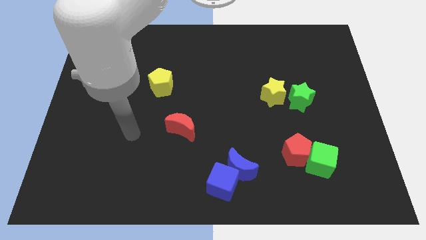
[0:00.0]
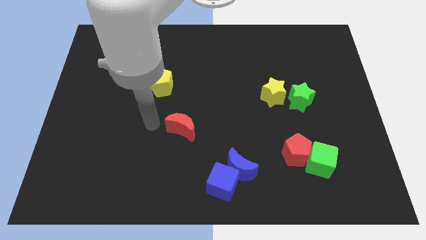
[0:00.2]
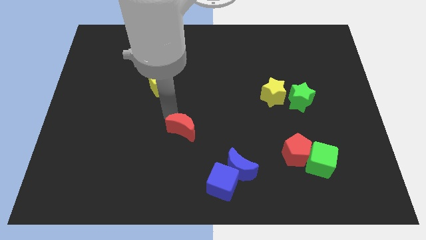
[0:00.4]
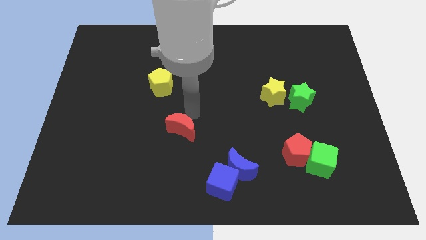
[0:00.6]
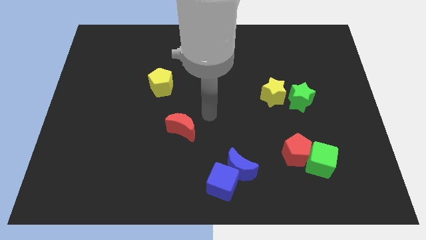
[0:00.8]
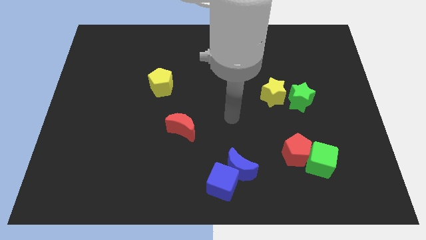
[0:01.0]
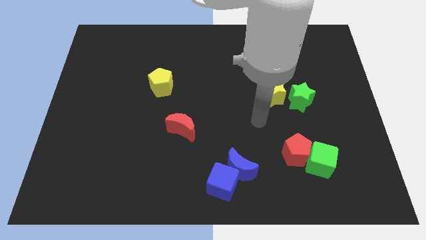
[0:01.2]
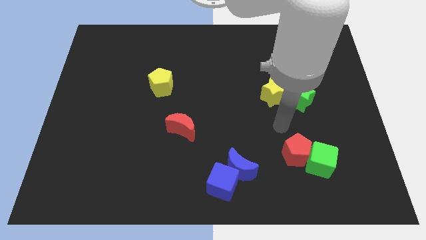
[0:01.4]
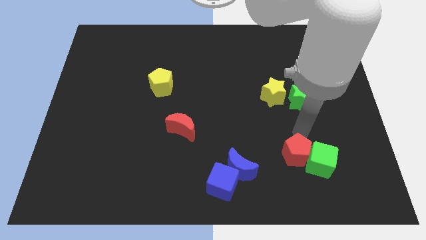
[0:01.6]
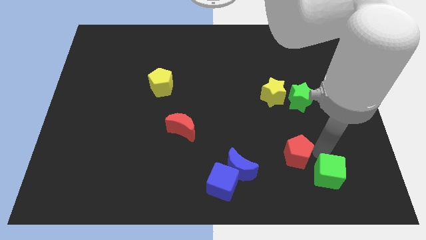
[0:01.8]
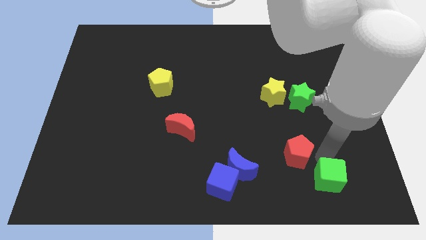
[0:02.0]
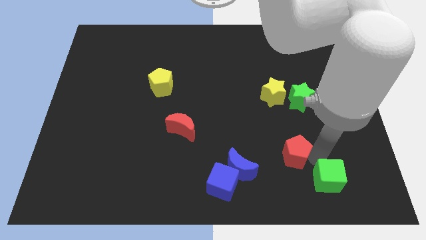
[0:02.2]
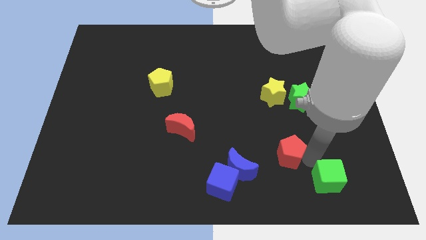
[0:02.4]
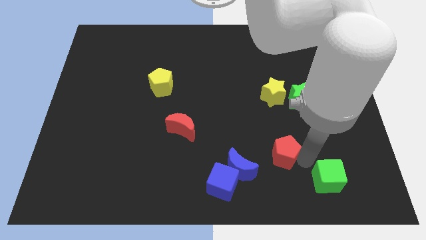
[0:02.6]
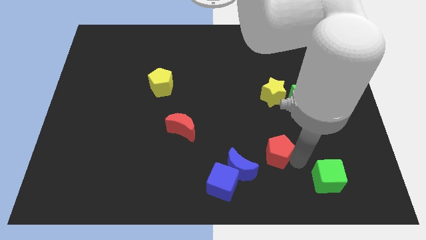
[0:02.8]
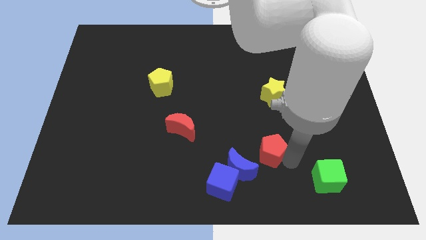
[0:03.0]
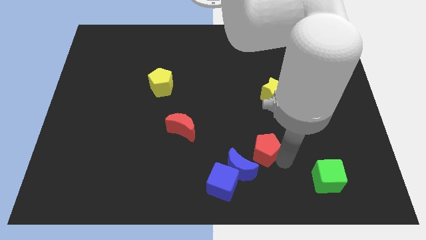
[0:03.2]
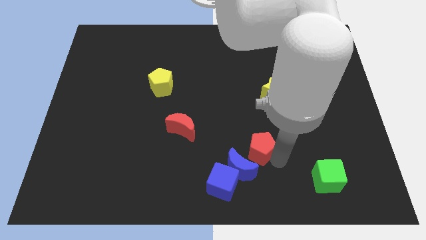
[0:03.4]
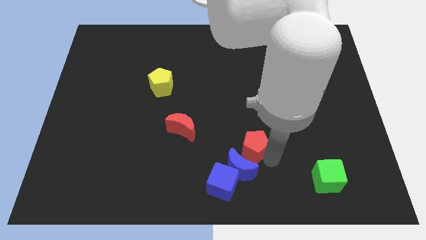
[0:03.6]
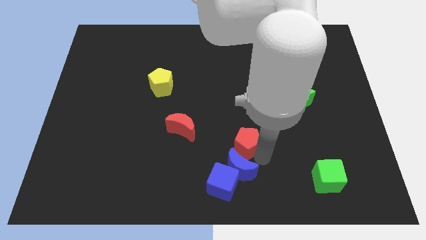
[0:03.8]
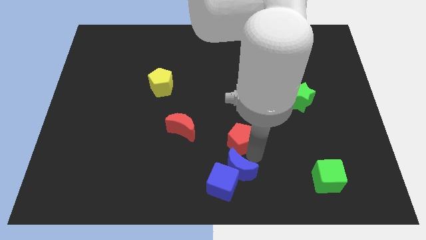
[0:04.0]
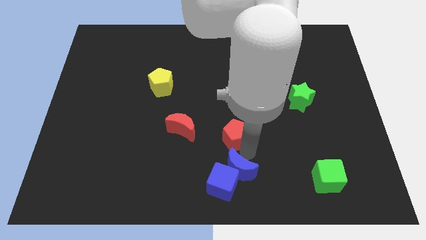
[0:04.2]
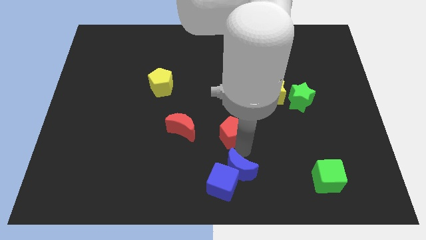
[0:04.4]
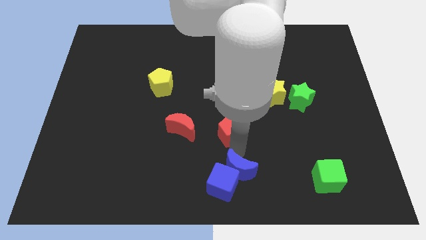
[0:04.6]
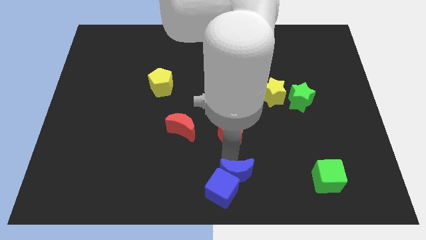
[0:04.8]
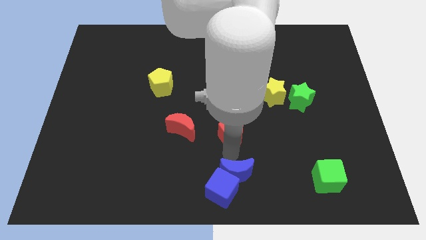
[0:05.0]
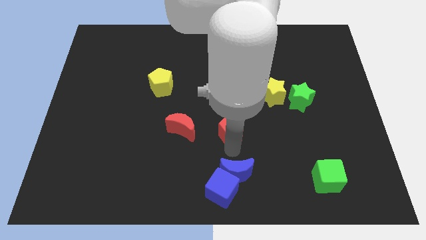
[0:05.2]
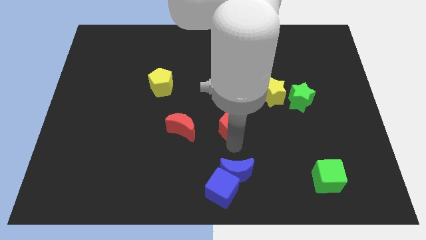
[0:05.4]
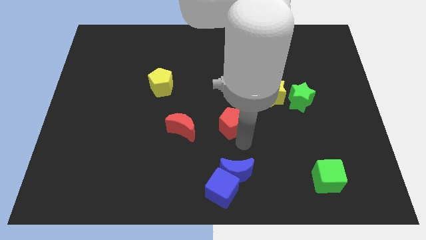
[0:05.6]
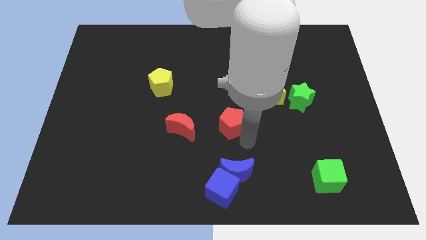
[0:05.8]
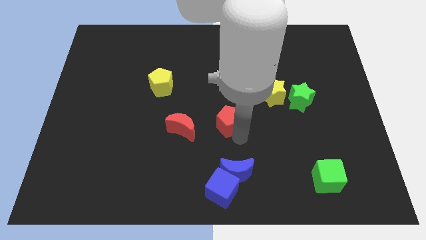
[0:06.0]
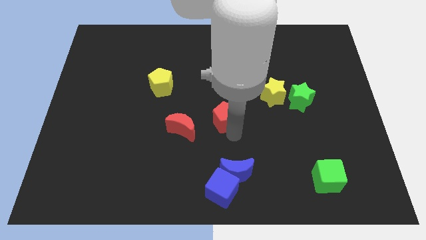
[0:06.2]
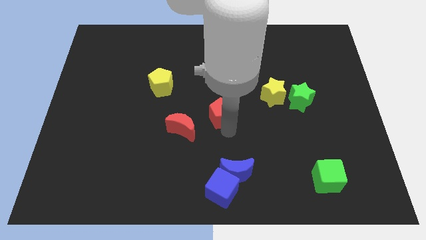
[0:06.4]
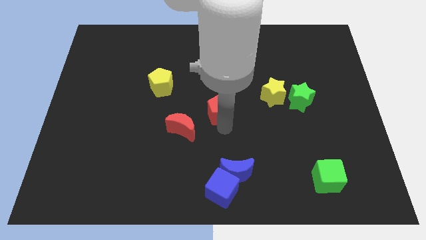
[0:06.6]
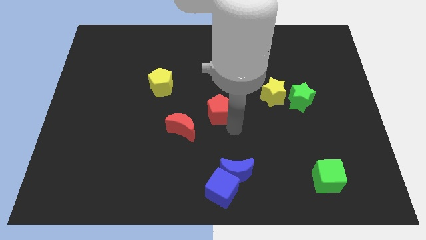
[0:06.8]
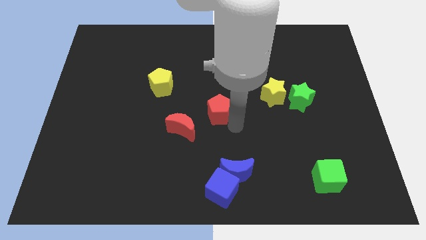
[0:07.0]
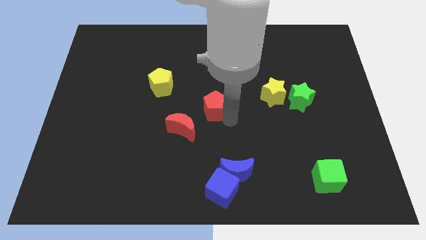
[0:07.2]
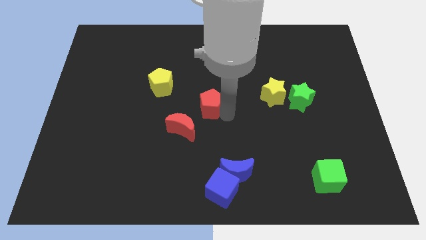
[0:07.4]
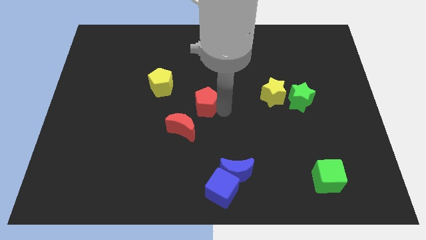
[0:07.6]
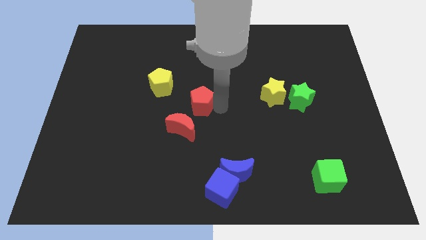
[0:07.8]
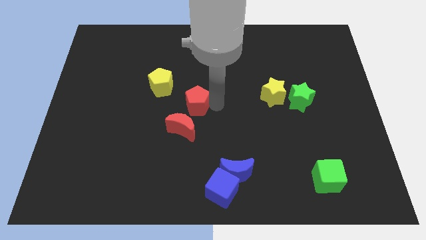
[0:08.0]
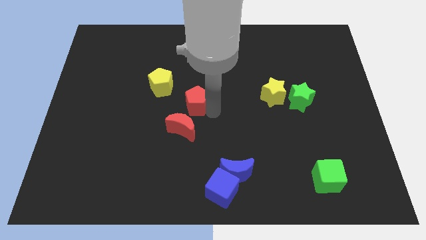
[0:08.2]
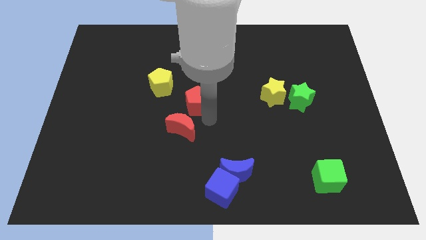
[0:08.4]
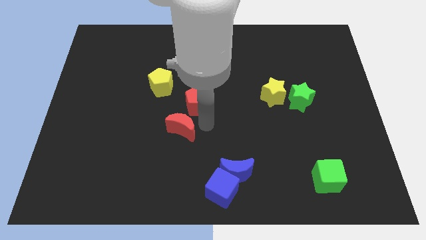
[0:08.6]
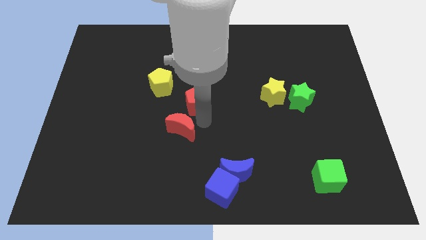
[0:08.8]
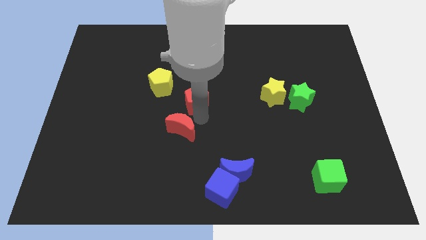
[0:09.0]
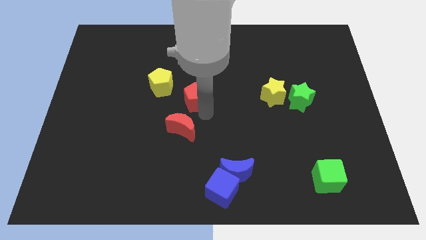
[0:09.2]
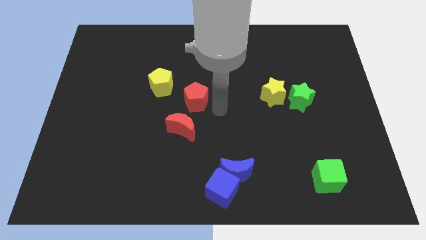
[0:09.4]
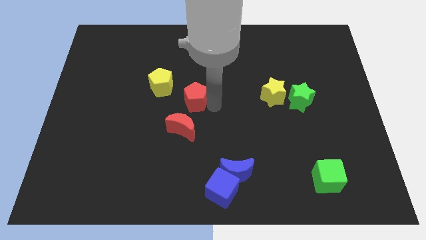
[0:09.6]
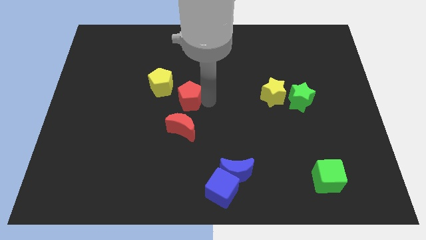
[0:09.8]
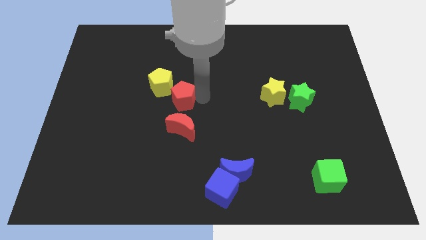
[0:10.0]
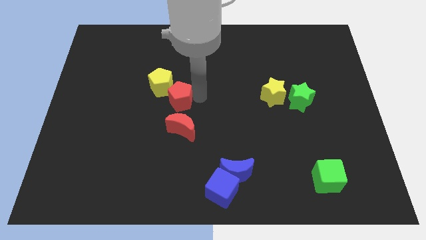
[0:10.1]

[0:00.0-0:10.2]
slide the red pentagon next to the yellow pentagon

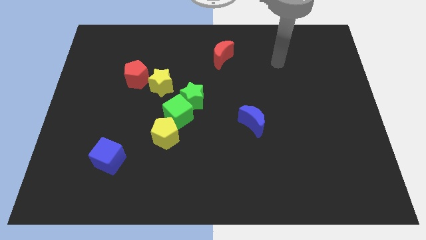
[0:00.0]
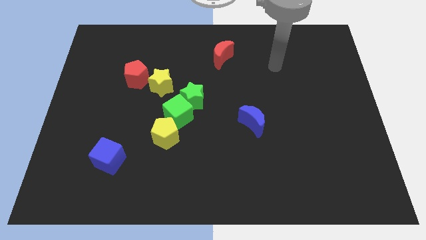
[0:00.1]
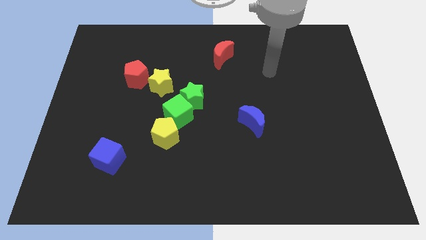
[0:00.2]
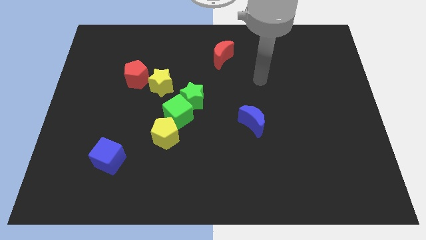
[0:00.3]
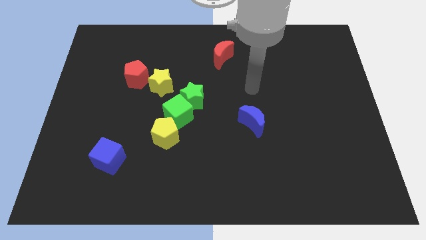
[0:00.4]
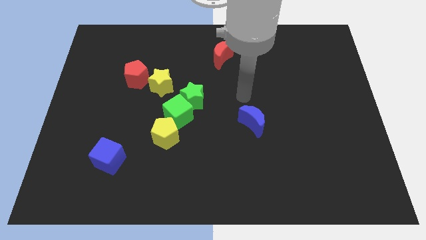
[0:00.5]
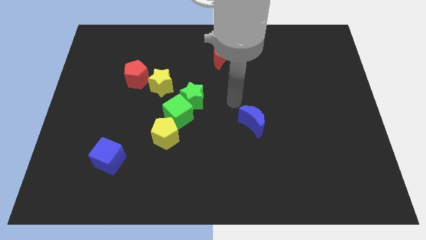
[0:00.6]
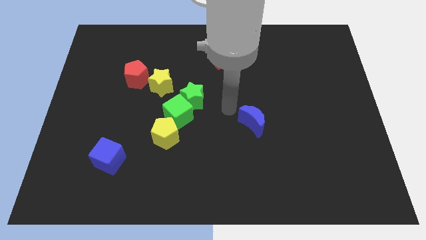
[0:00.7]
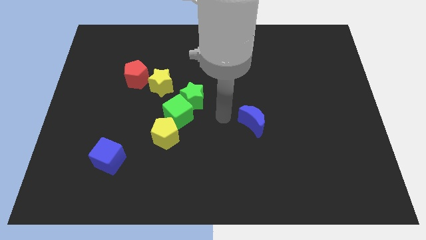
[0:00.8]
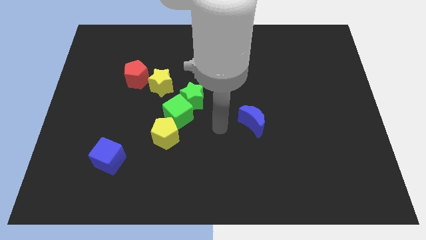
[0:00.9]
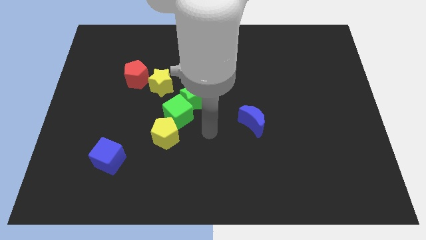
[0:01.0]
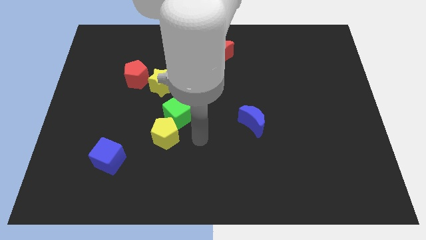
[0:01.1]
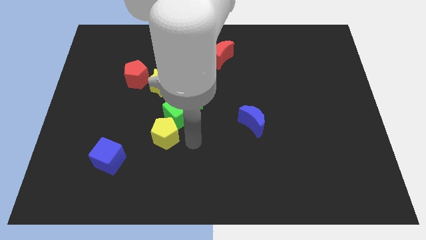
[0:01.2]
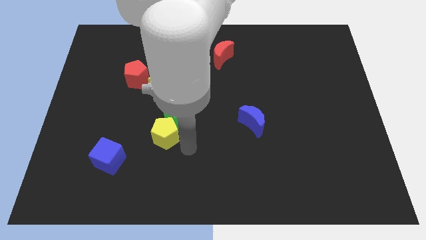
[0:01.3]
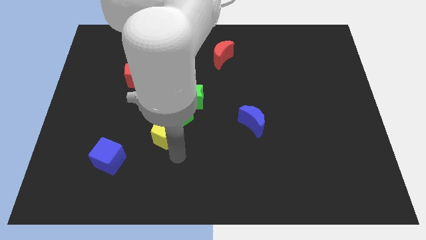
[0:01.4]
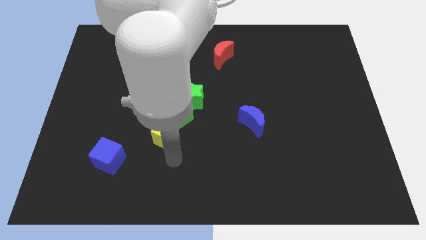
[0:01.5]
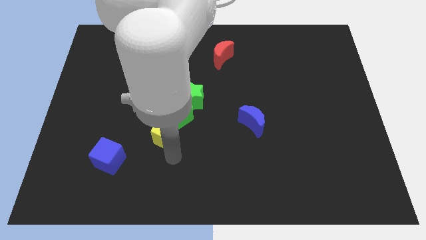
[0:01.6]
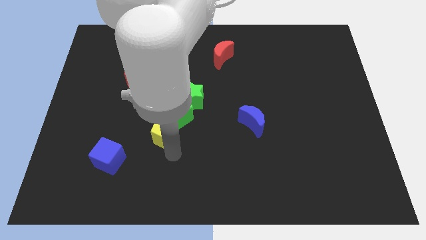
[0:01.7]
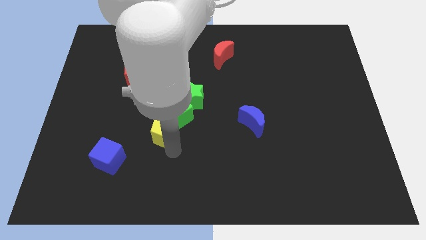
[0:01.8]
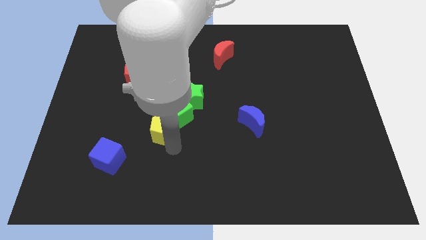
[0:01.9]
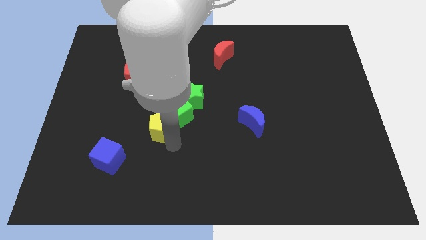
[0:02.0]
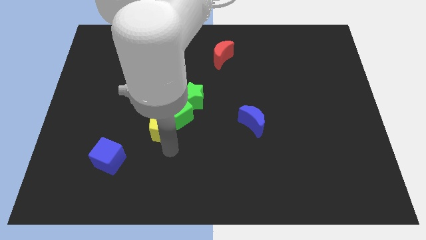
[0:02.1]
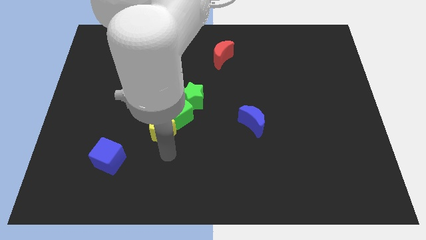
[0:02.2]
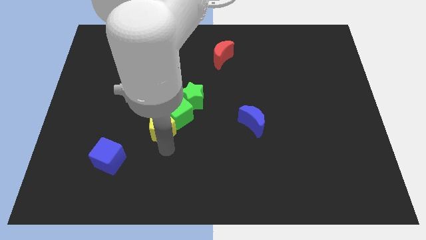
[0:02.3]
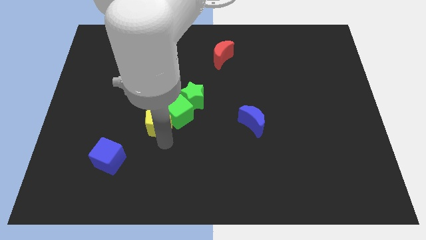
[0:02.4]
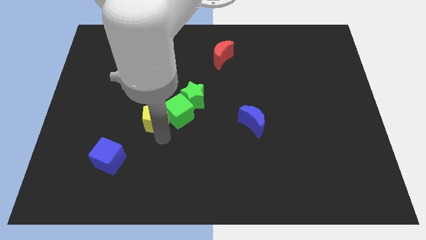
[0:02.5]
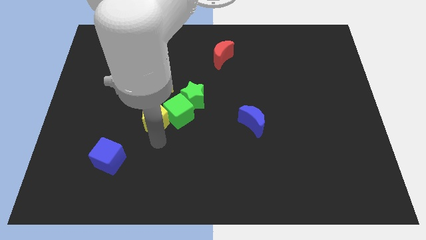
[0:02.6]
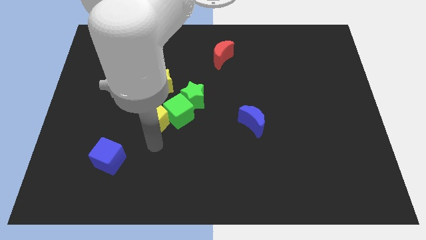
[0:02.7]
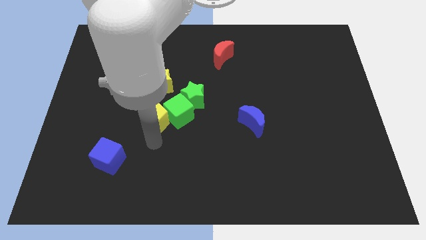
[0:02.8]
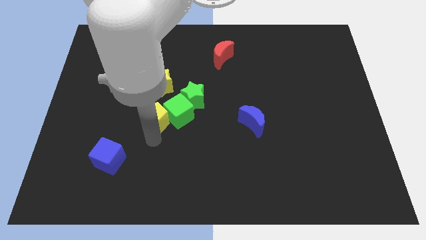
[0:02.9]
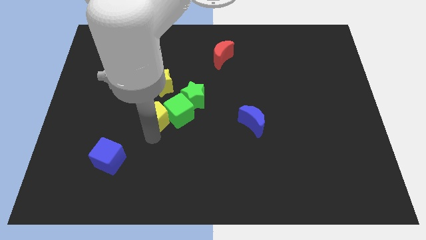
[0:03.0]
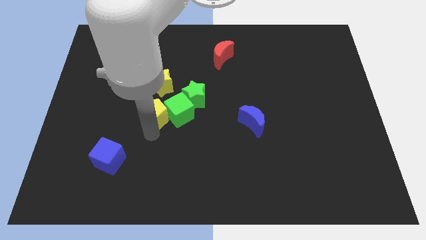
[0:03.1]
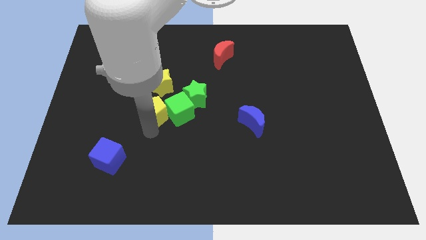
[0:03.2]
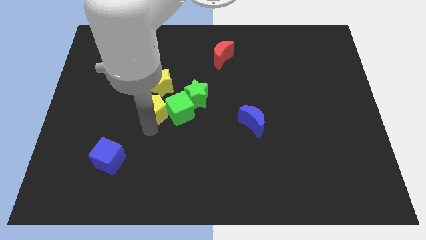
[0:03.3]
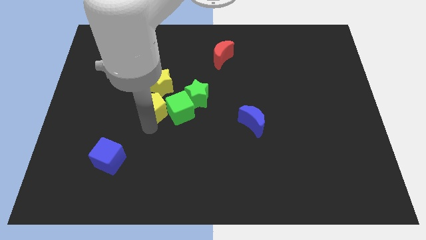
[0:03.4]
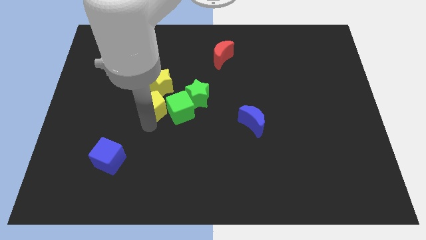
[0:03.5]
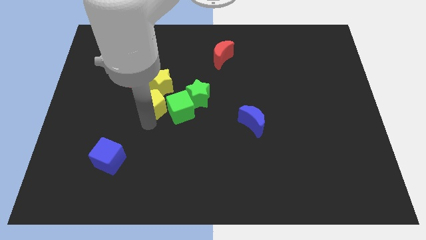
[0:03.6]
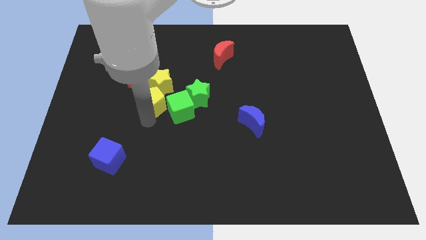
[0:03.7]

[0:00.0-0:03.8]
put the yellow pentagon towards the yellow star
